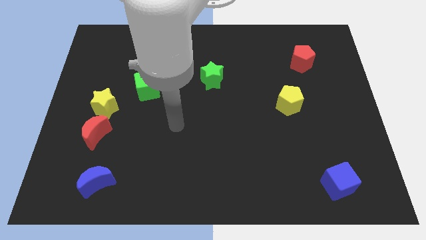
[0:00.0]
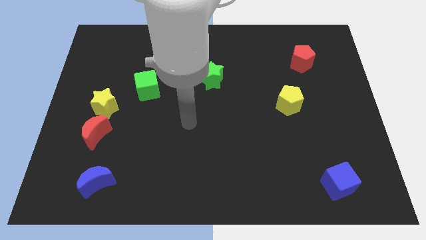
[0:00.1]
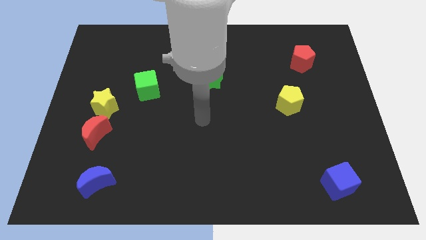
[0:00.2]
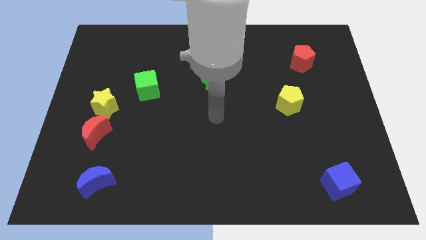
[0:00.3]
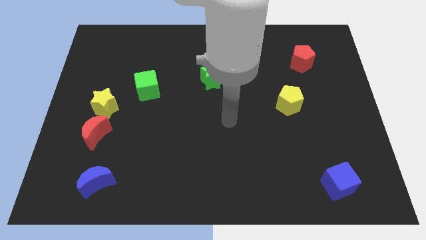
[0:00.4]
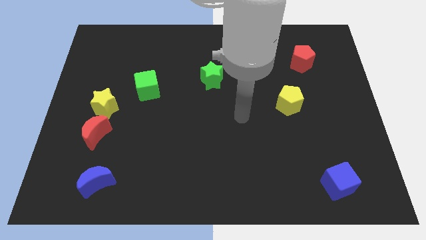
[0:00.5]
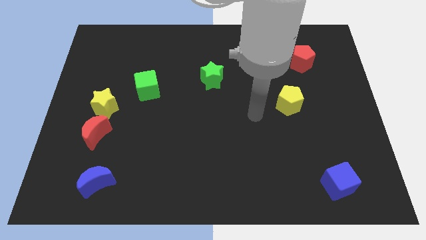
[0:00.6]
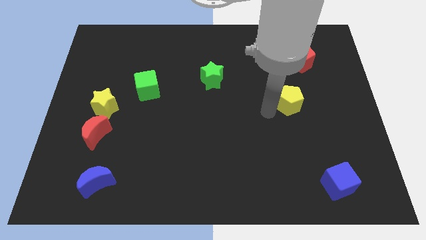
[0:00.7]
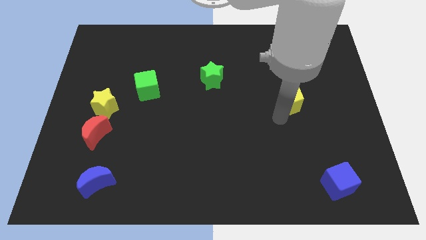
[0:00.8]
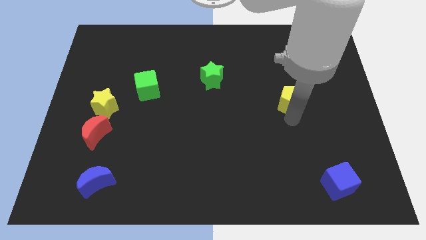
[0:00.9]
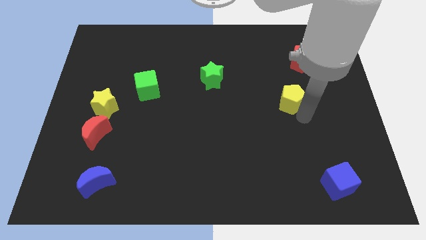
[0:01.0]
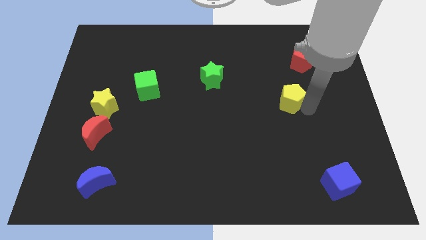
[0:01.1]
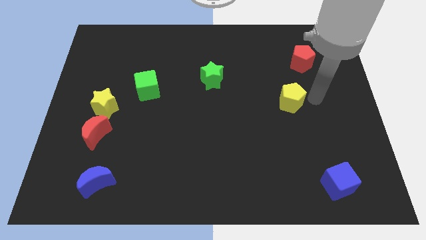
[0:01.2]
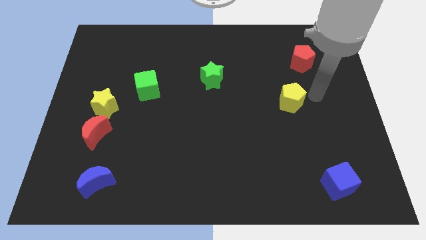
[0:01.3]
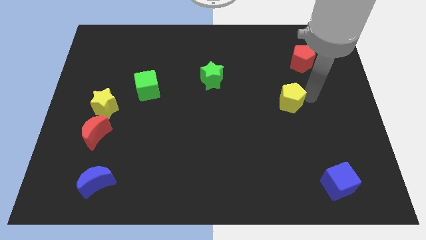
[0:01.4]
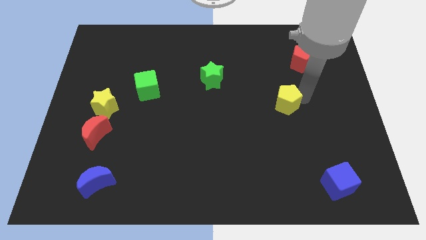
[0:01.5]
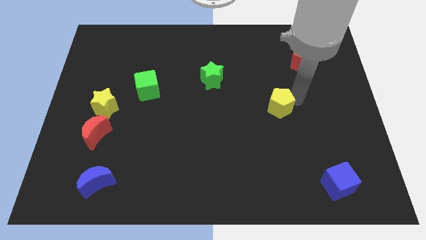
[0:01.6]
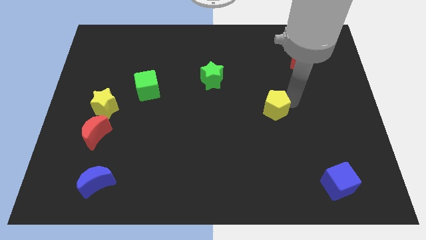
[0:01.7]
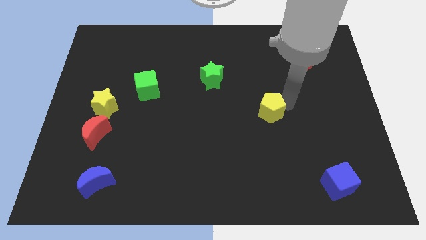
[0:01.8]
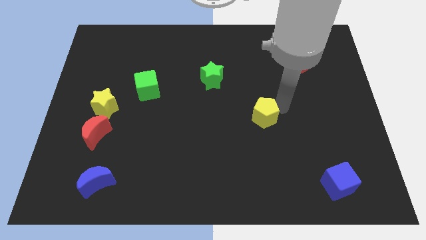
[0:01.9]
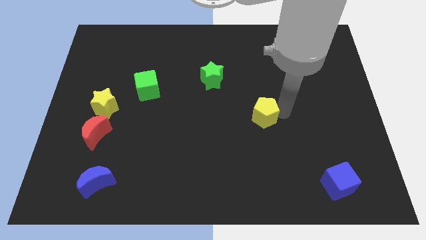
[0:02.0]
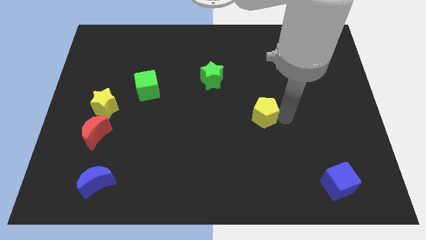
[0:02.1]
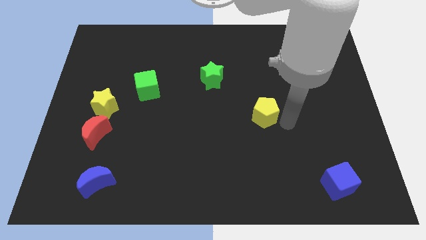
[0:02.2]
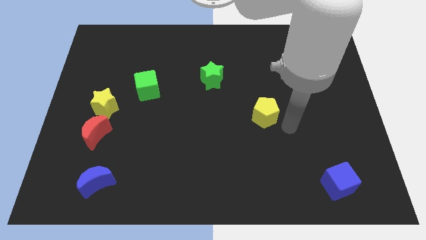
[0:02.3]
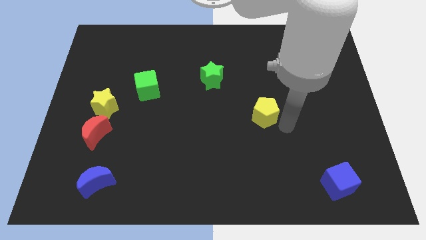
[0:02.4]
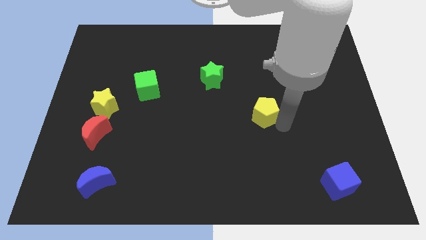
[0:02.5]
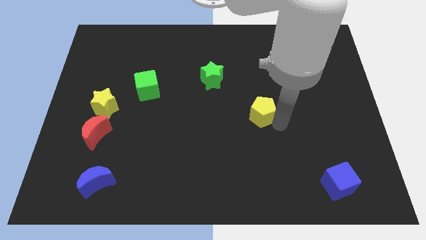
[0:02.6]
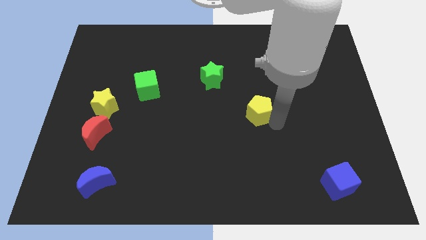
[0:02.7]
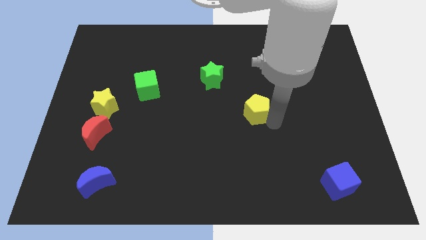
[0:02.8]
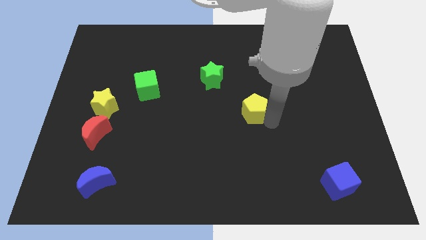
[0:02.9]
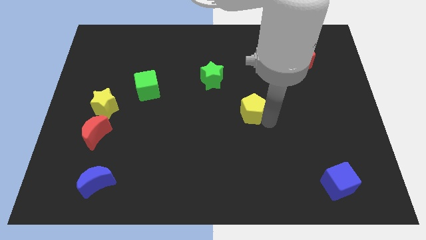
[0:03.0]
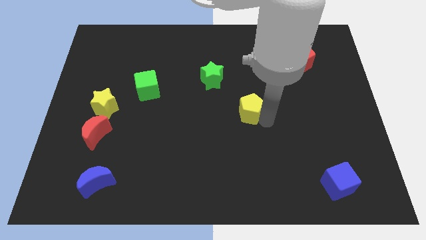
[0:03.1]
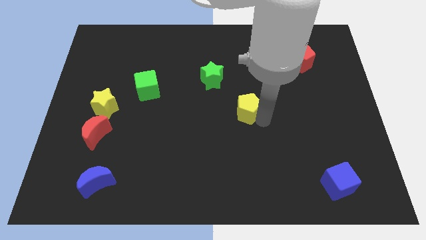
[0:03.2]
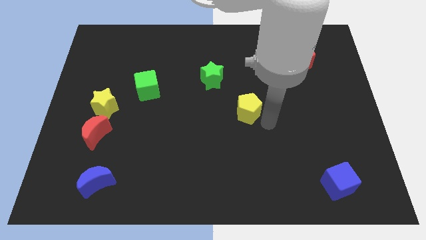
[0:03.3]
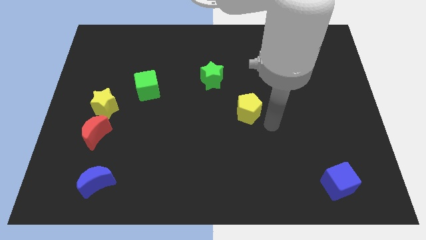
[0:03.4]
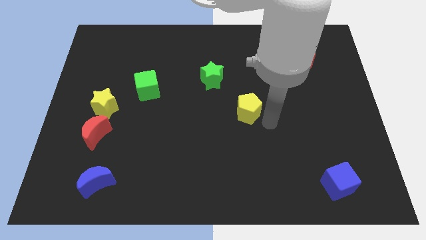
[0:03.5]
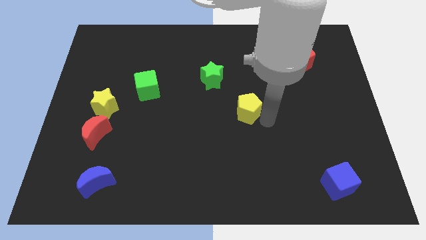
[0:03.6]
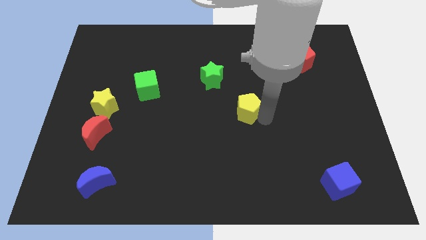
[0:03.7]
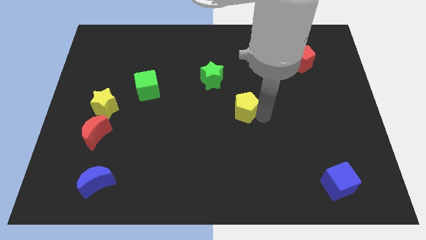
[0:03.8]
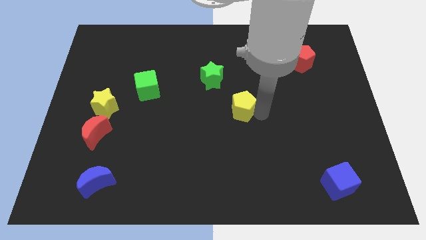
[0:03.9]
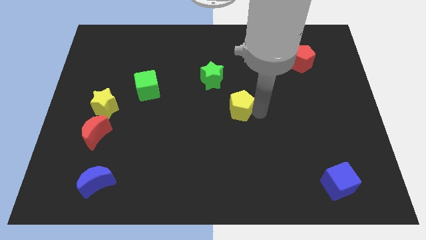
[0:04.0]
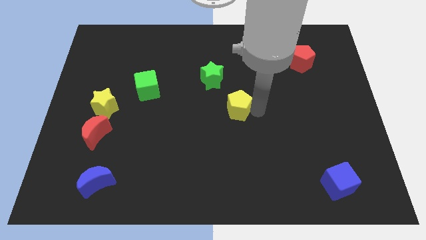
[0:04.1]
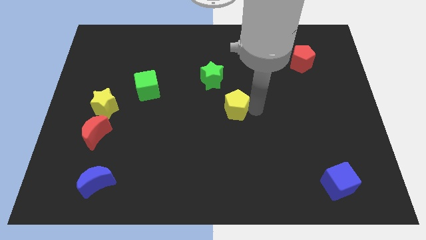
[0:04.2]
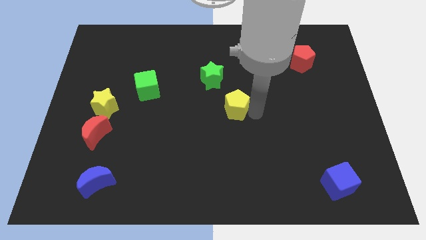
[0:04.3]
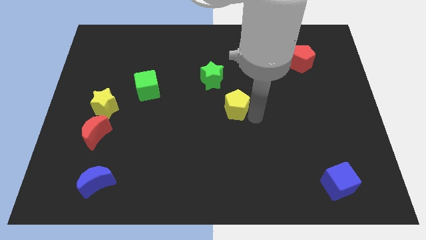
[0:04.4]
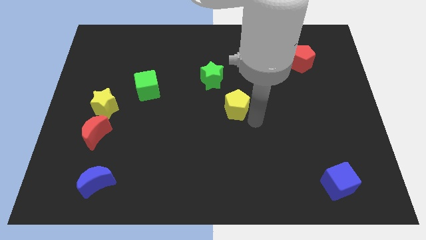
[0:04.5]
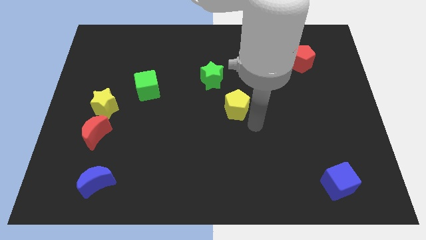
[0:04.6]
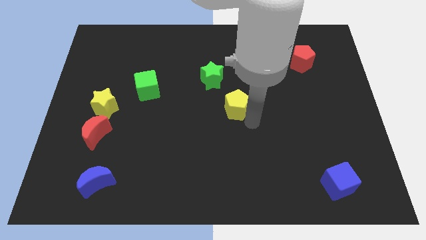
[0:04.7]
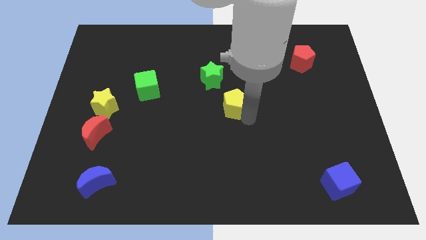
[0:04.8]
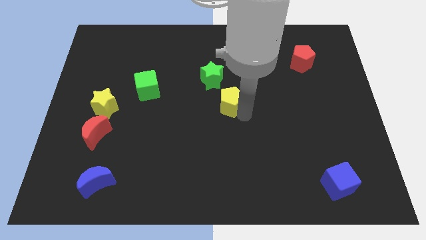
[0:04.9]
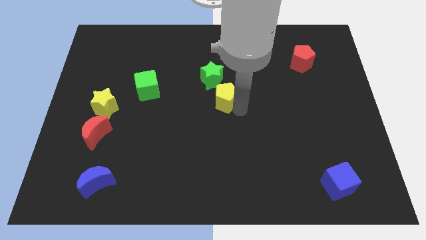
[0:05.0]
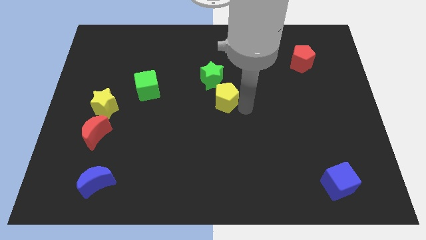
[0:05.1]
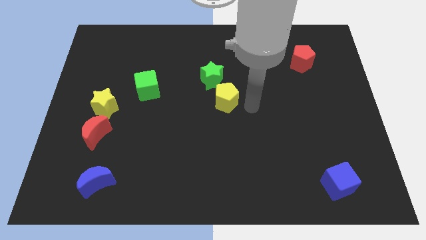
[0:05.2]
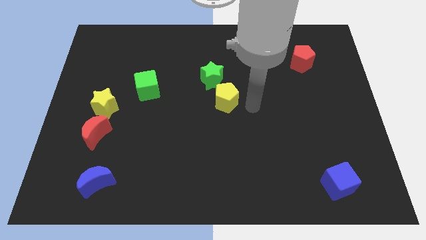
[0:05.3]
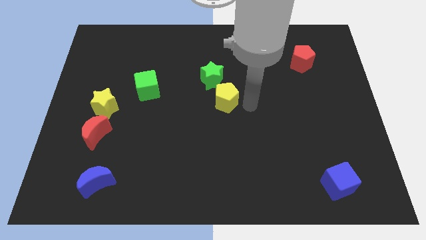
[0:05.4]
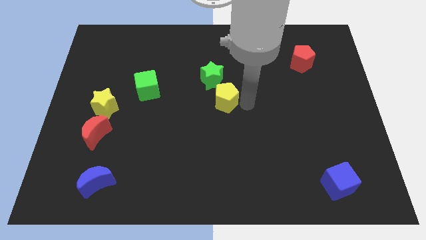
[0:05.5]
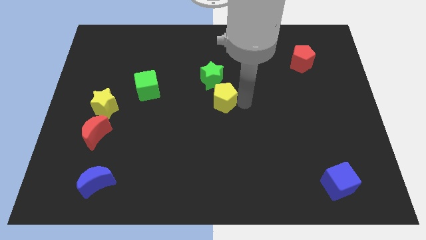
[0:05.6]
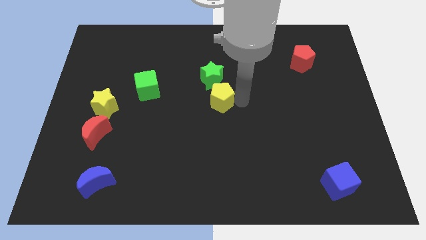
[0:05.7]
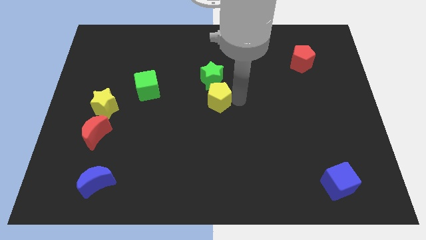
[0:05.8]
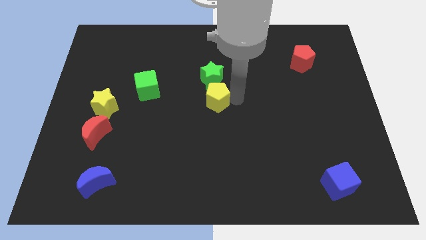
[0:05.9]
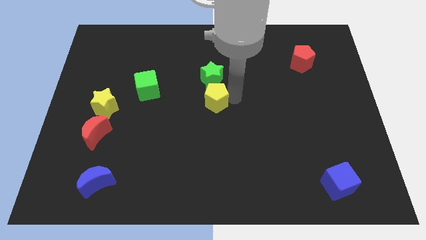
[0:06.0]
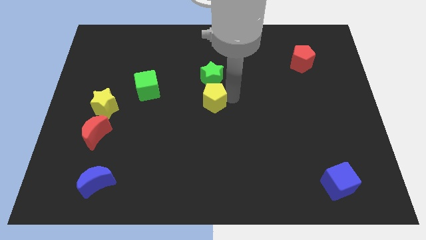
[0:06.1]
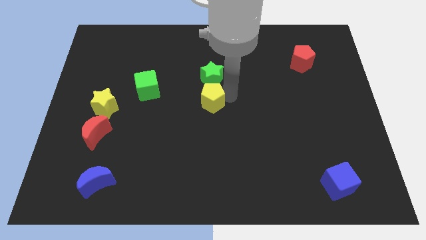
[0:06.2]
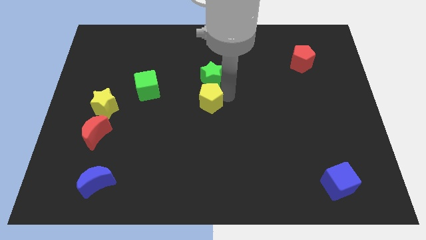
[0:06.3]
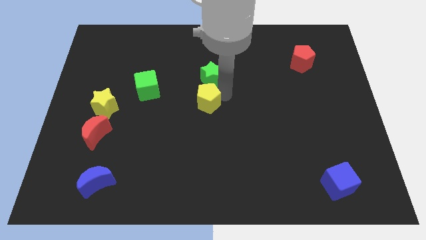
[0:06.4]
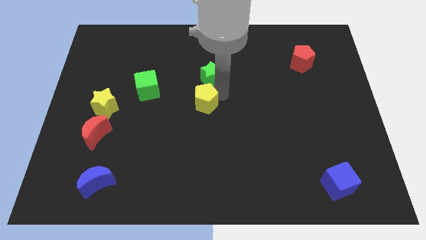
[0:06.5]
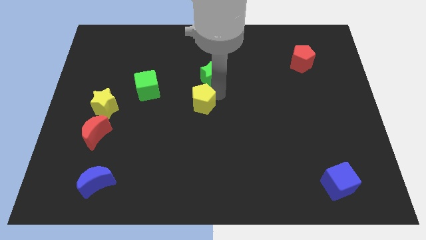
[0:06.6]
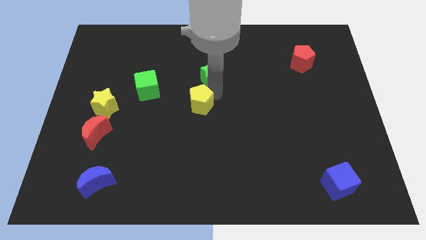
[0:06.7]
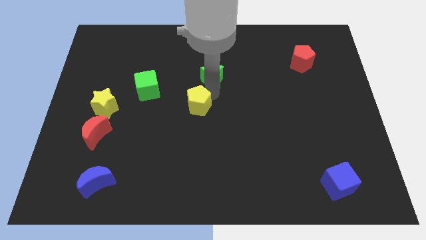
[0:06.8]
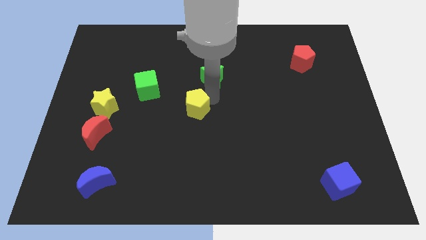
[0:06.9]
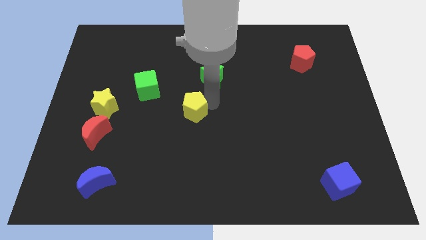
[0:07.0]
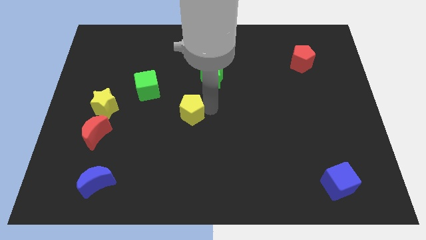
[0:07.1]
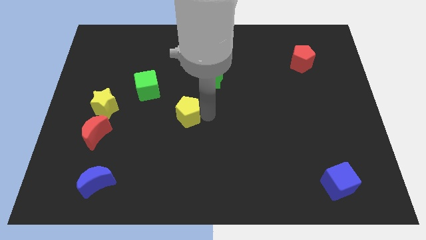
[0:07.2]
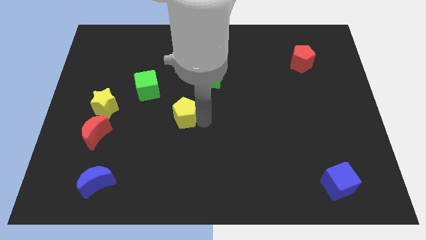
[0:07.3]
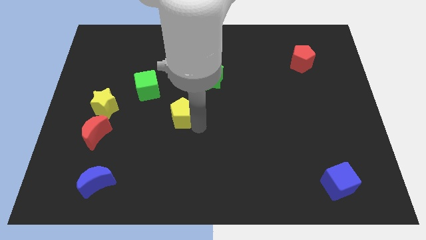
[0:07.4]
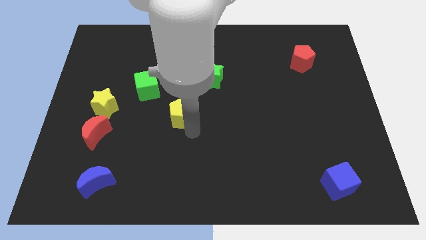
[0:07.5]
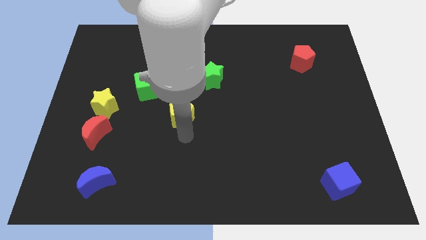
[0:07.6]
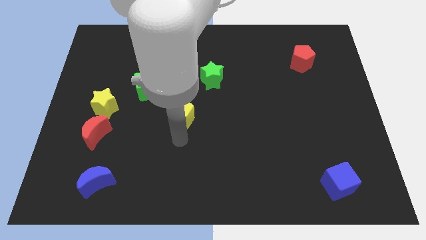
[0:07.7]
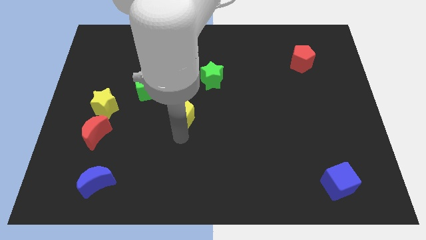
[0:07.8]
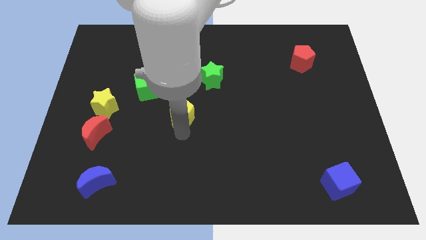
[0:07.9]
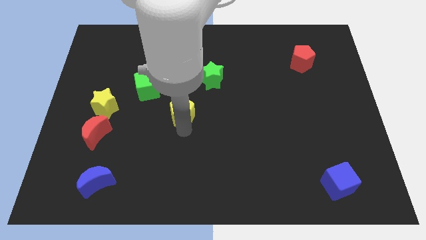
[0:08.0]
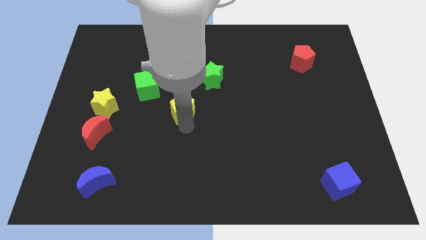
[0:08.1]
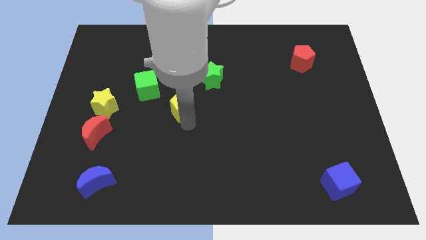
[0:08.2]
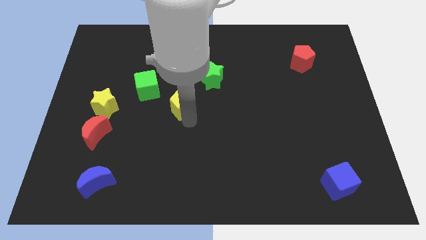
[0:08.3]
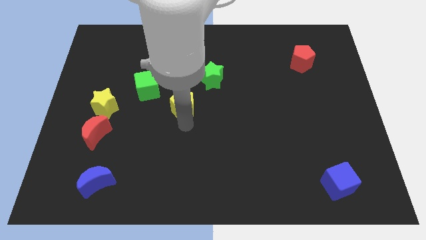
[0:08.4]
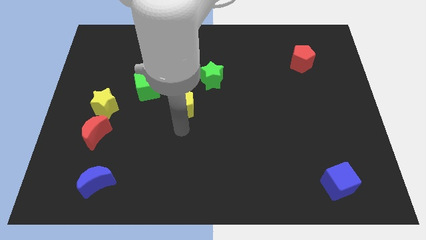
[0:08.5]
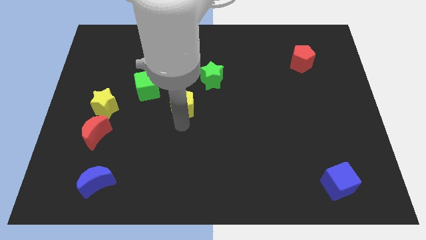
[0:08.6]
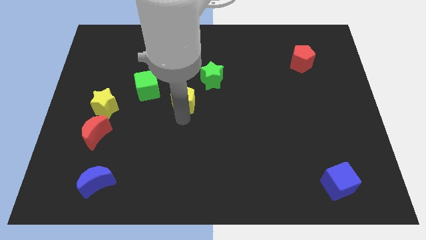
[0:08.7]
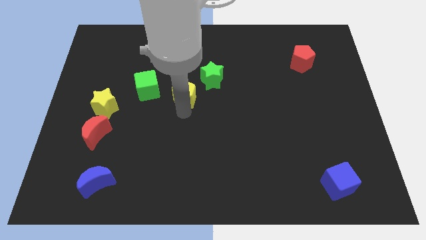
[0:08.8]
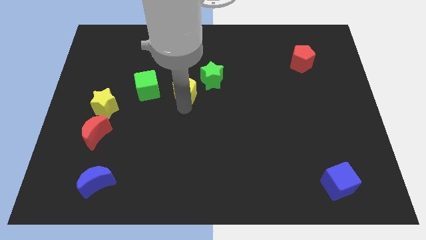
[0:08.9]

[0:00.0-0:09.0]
push the yellow pentagon to the left side of the green star
